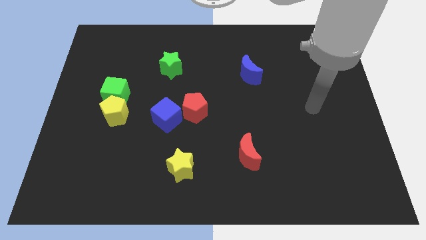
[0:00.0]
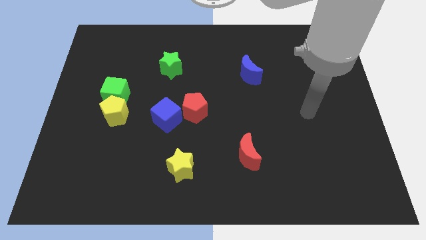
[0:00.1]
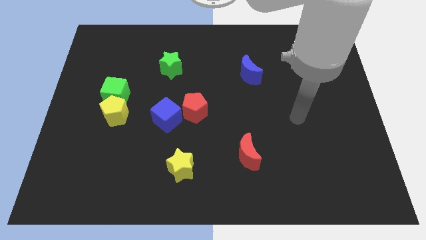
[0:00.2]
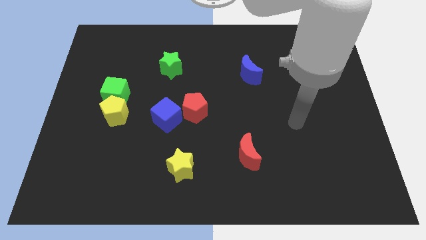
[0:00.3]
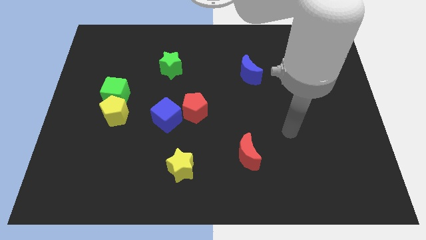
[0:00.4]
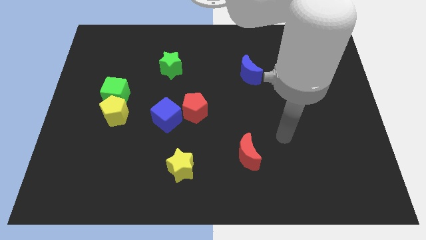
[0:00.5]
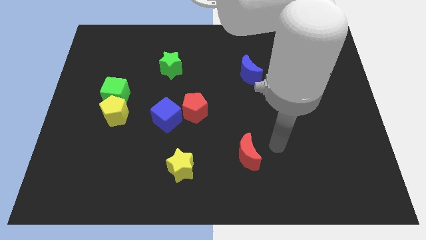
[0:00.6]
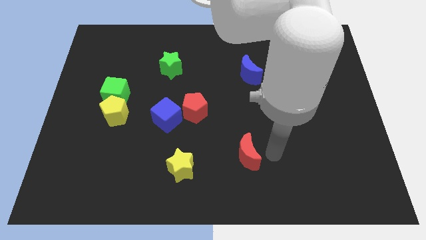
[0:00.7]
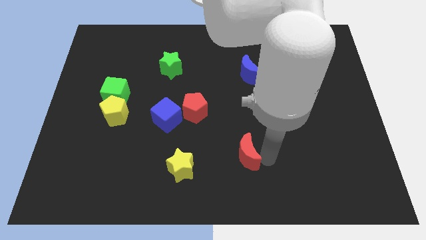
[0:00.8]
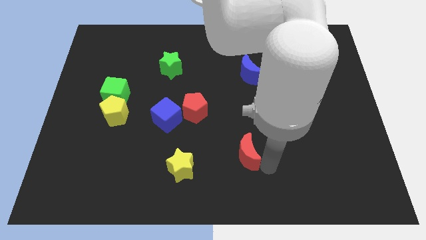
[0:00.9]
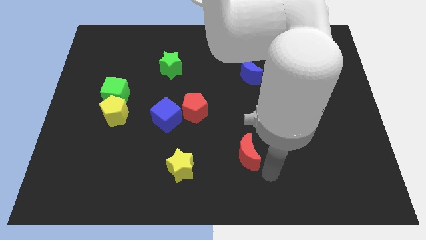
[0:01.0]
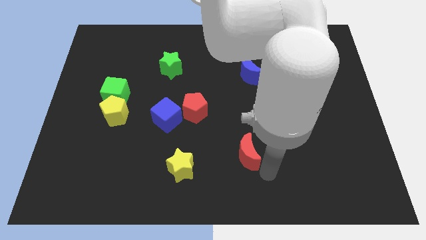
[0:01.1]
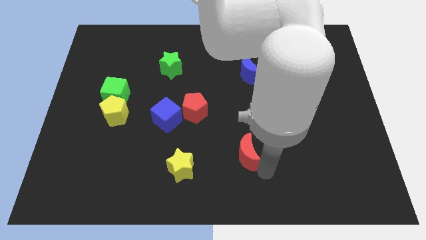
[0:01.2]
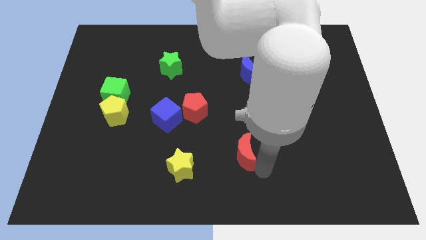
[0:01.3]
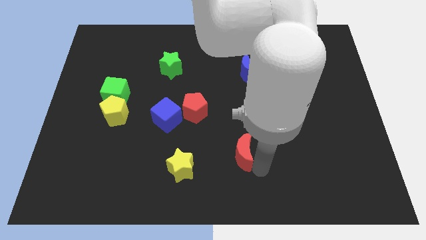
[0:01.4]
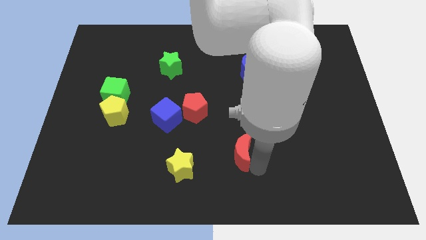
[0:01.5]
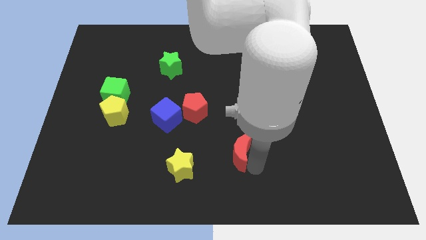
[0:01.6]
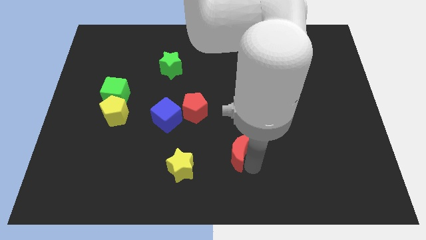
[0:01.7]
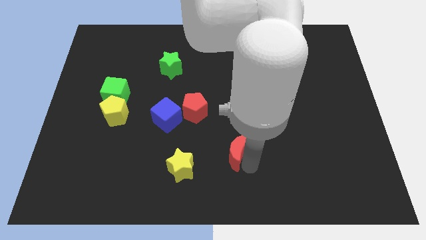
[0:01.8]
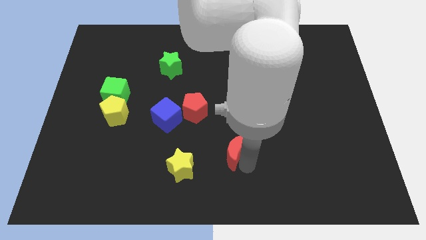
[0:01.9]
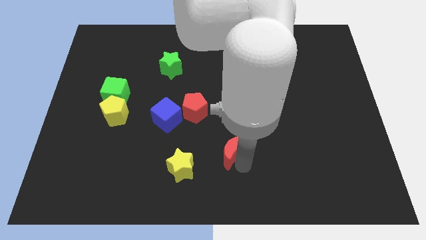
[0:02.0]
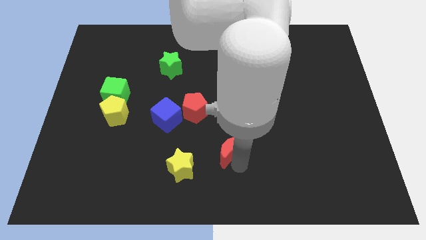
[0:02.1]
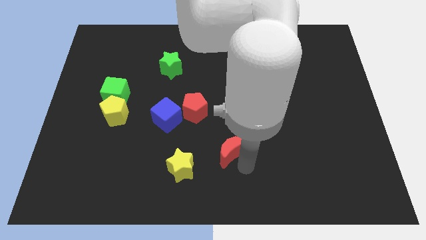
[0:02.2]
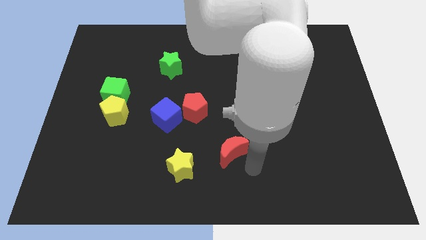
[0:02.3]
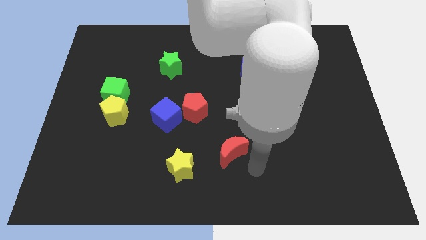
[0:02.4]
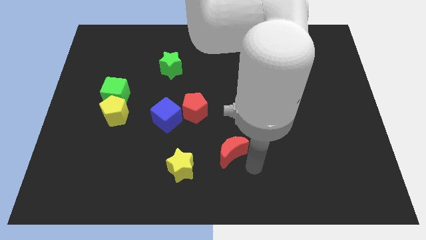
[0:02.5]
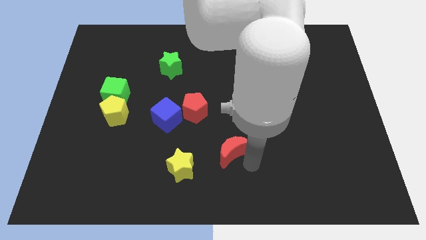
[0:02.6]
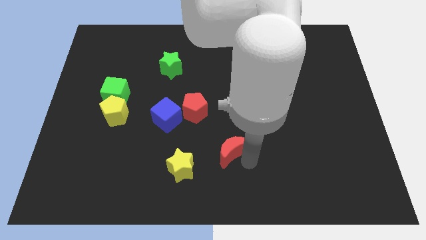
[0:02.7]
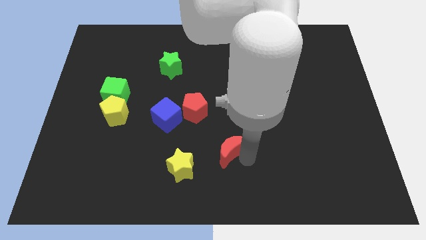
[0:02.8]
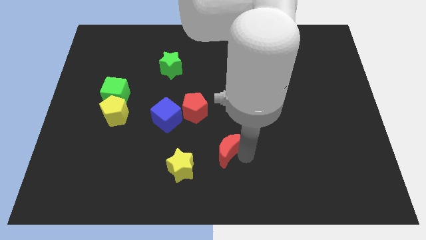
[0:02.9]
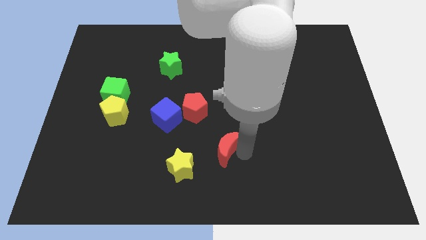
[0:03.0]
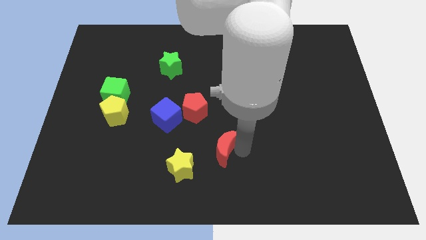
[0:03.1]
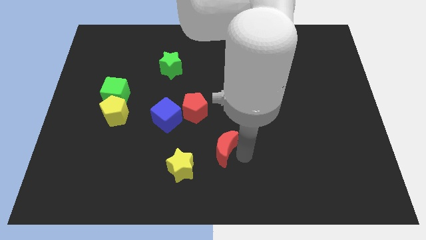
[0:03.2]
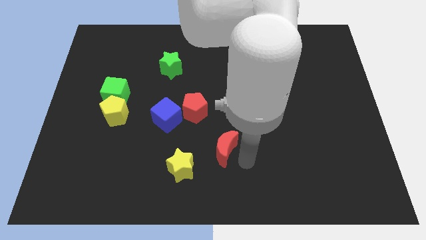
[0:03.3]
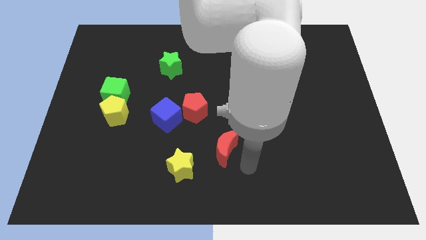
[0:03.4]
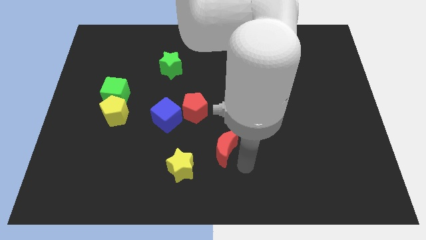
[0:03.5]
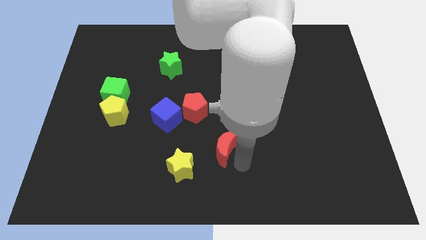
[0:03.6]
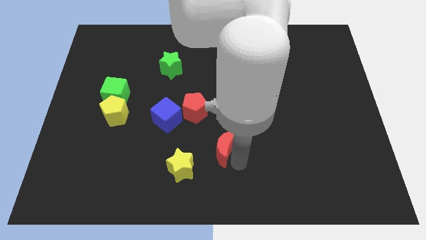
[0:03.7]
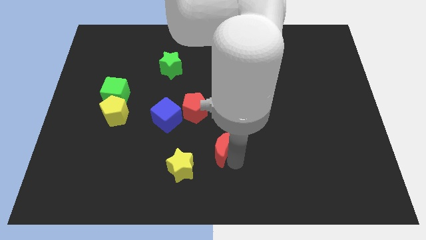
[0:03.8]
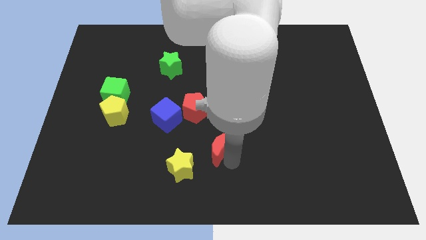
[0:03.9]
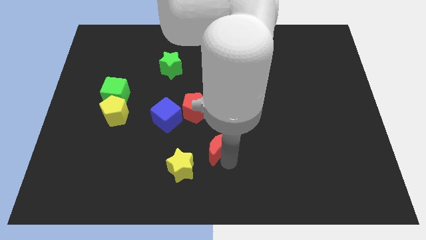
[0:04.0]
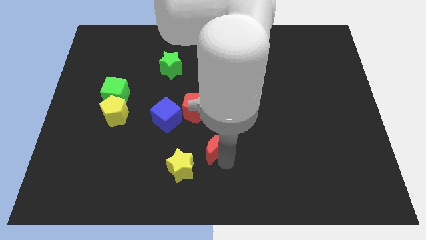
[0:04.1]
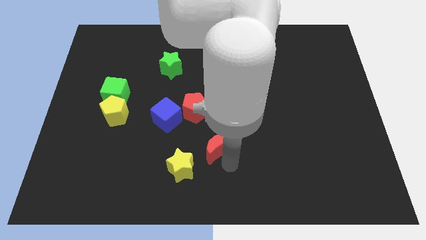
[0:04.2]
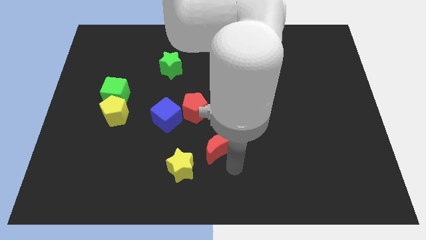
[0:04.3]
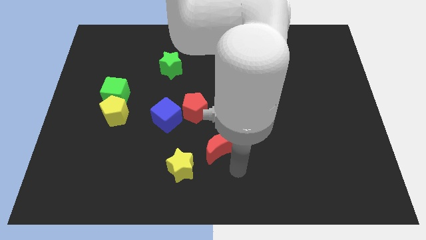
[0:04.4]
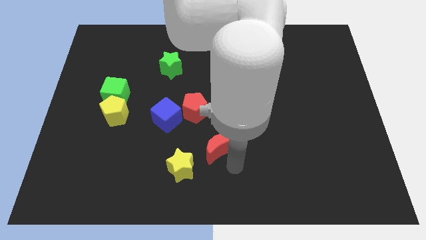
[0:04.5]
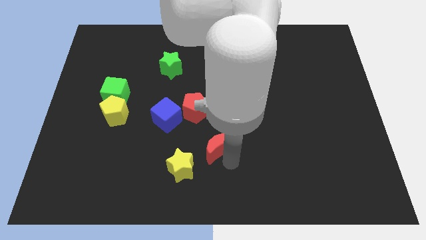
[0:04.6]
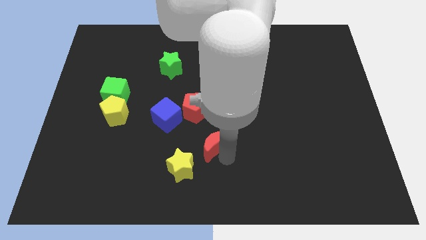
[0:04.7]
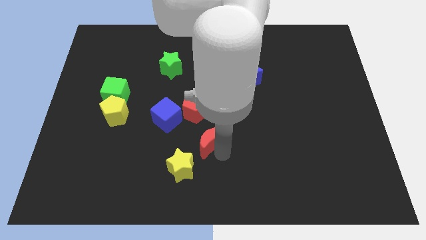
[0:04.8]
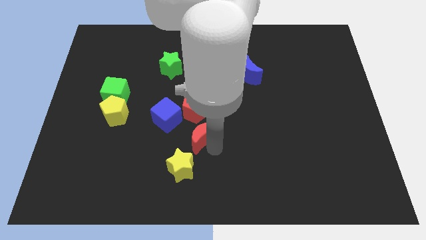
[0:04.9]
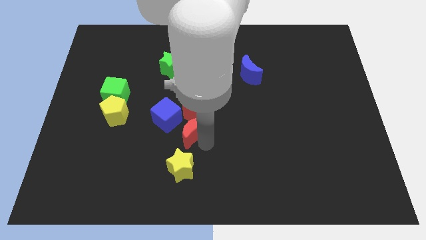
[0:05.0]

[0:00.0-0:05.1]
push the red moon to the red pentagon

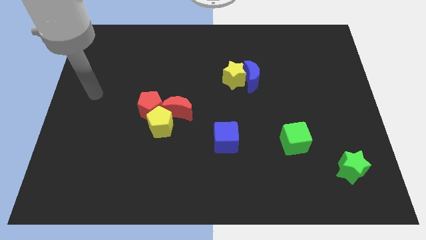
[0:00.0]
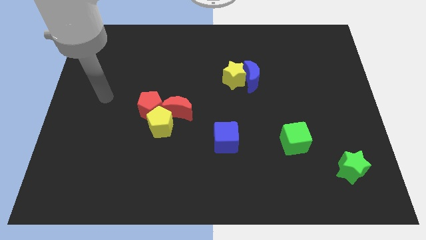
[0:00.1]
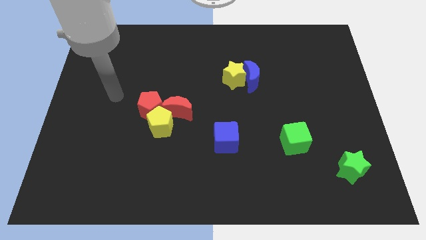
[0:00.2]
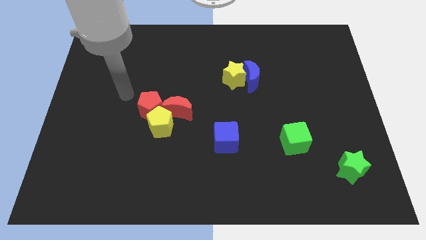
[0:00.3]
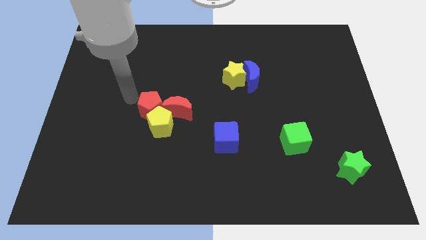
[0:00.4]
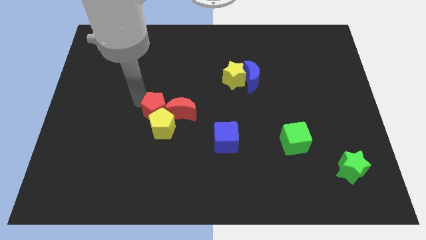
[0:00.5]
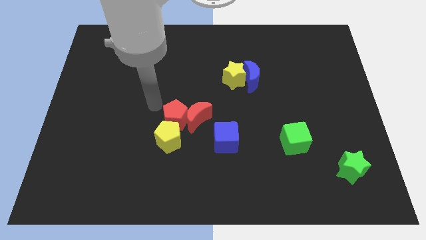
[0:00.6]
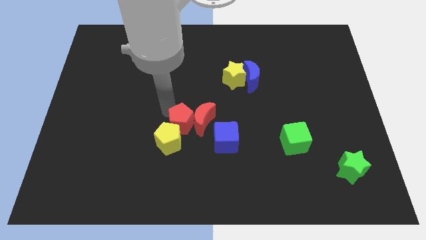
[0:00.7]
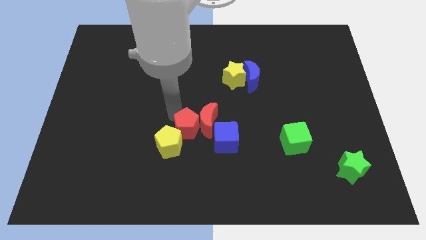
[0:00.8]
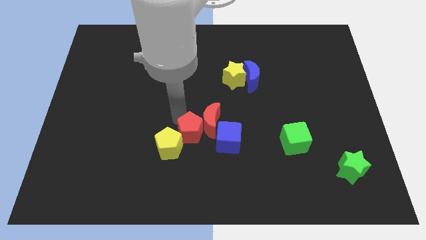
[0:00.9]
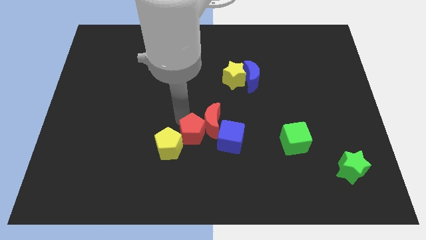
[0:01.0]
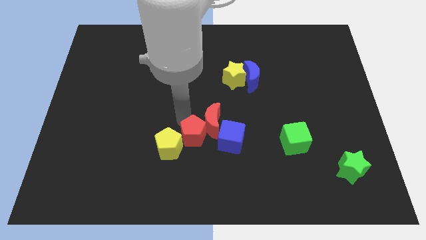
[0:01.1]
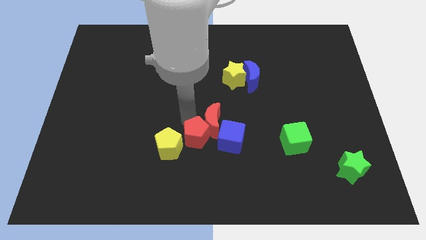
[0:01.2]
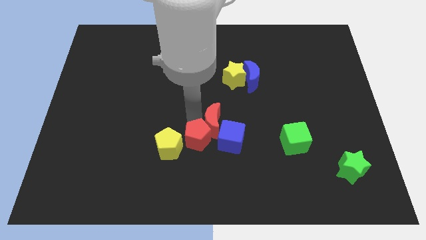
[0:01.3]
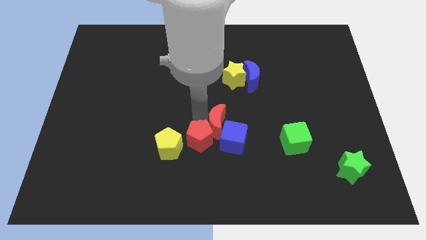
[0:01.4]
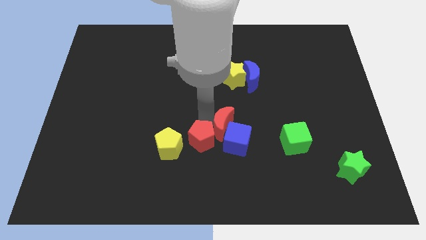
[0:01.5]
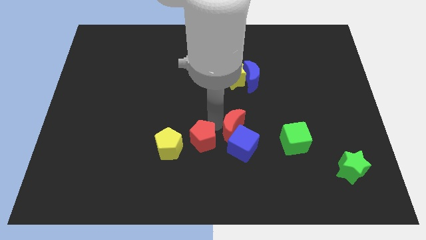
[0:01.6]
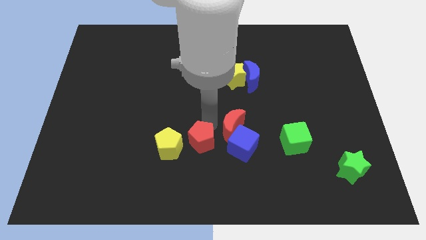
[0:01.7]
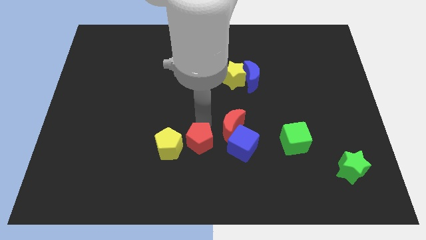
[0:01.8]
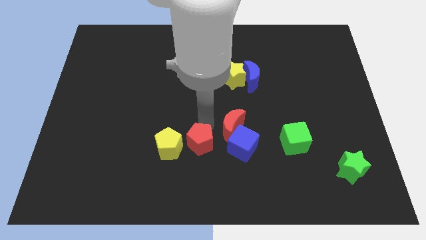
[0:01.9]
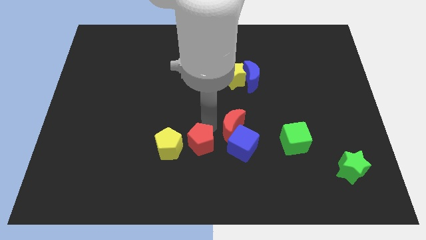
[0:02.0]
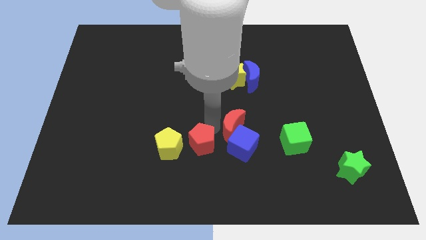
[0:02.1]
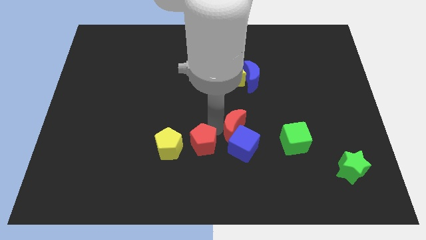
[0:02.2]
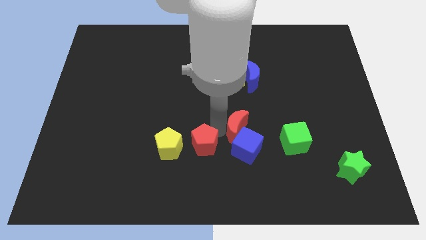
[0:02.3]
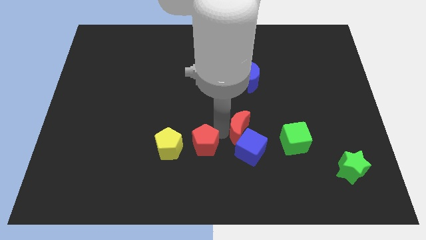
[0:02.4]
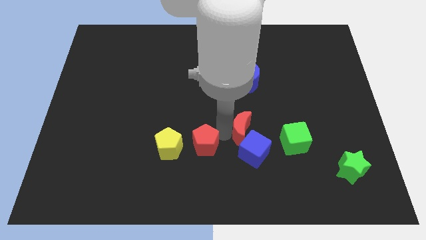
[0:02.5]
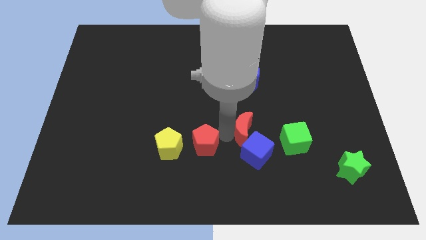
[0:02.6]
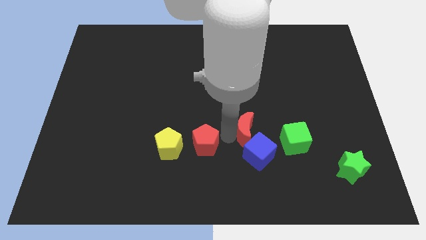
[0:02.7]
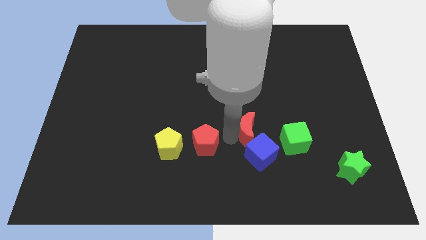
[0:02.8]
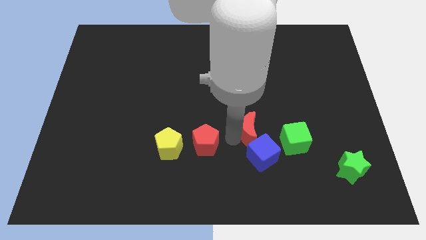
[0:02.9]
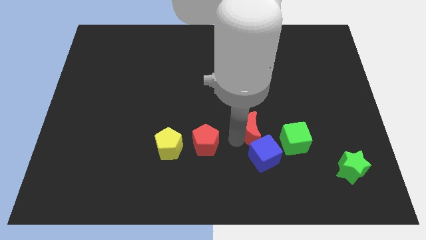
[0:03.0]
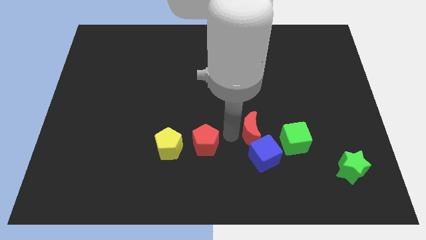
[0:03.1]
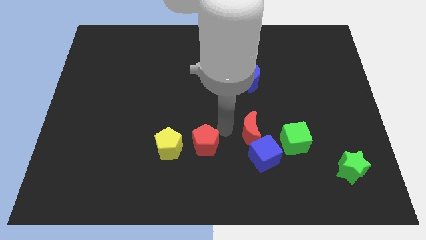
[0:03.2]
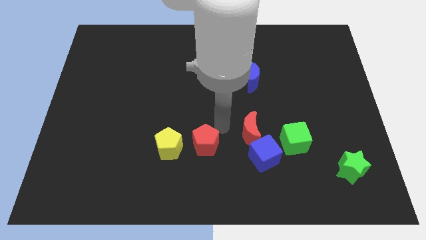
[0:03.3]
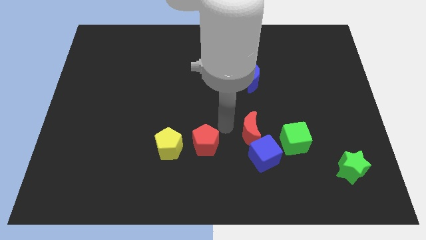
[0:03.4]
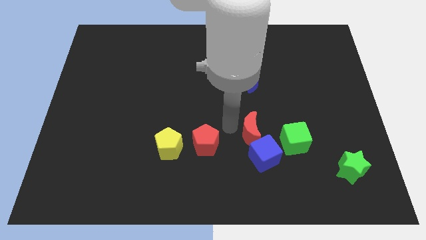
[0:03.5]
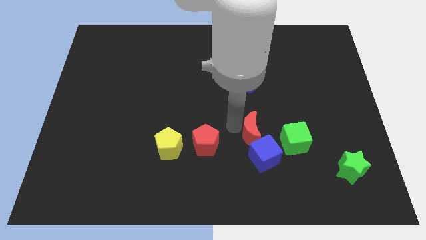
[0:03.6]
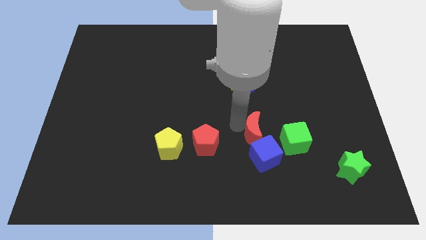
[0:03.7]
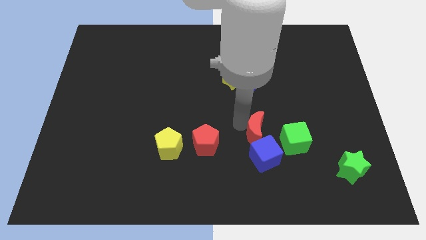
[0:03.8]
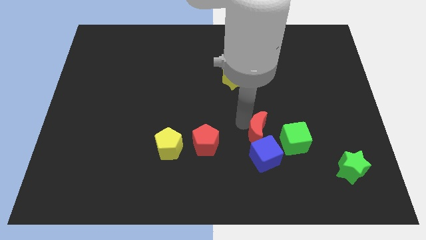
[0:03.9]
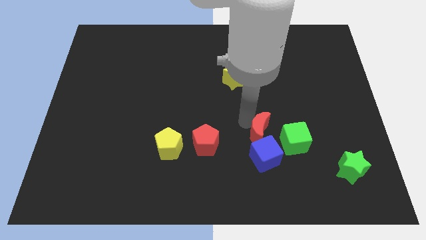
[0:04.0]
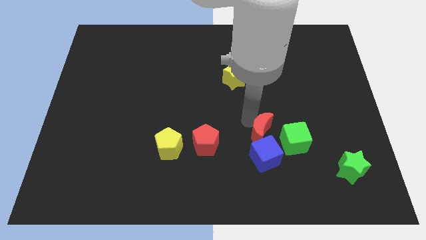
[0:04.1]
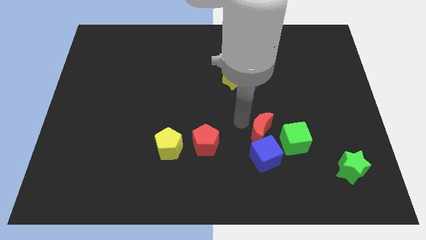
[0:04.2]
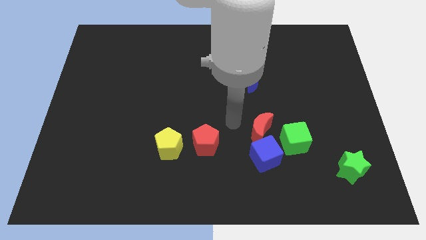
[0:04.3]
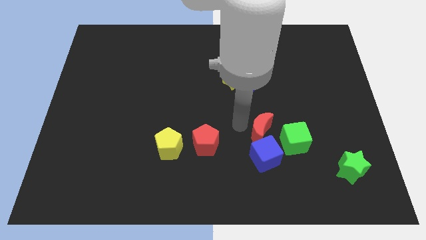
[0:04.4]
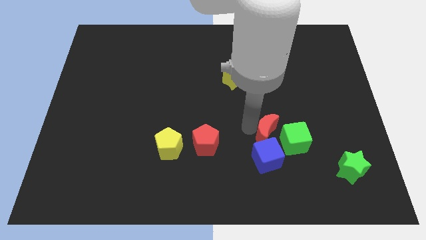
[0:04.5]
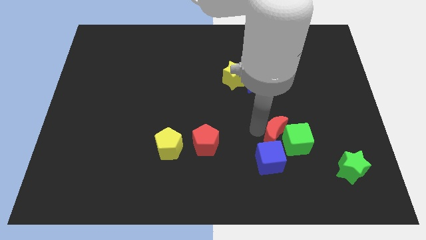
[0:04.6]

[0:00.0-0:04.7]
put the red moon towards the green cube
